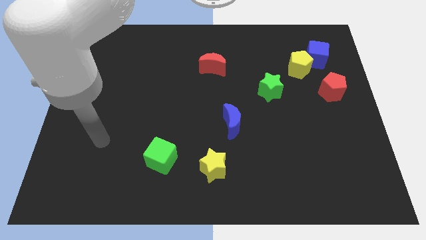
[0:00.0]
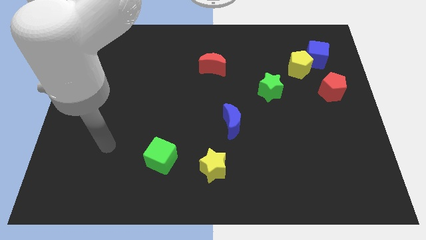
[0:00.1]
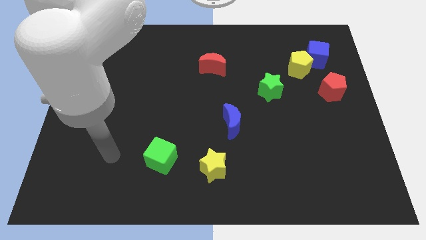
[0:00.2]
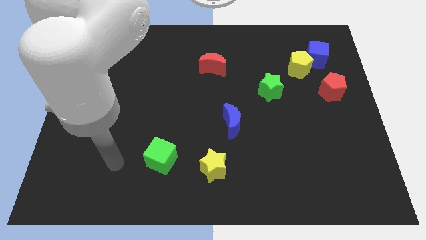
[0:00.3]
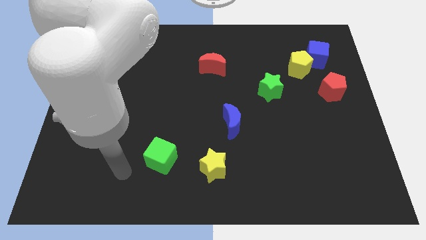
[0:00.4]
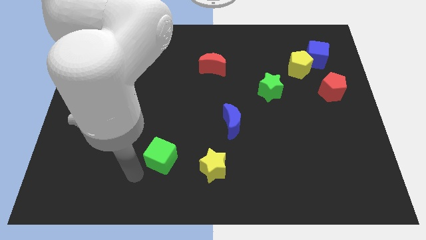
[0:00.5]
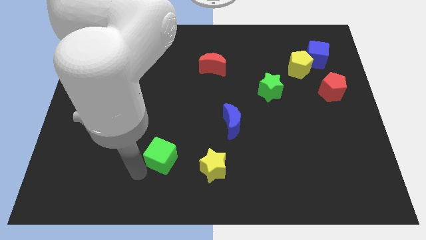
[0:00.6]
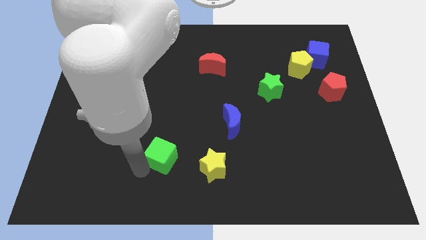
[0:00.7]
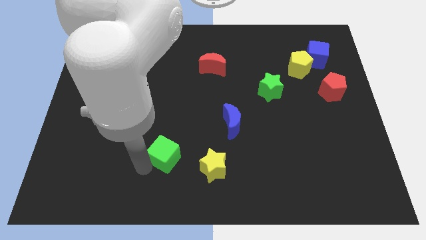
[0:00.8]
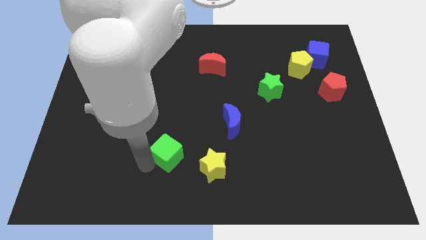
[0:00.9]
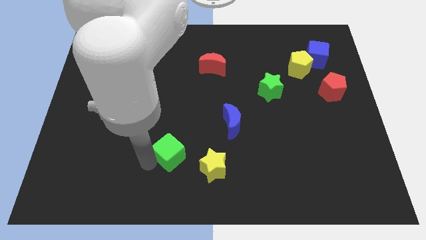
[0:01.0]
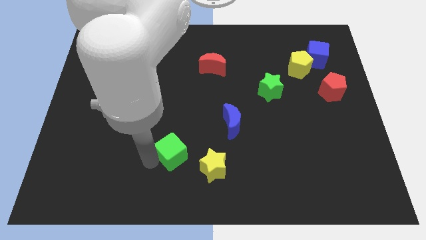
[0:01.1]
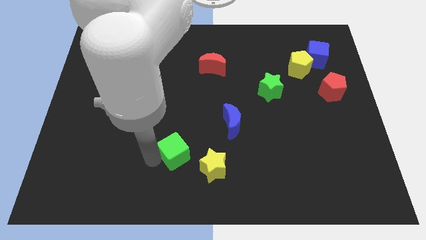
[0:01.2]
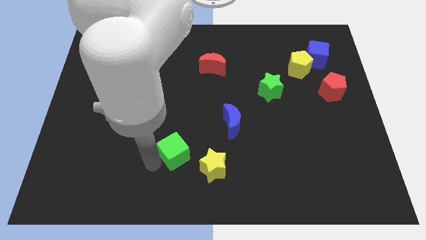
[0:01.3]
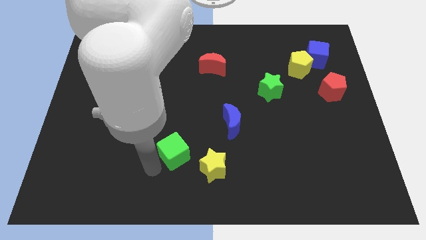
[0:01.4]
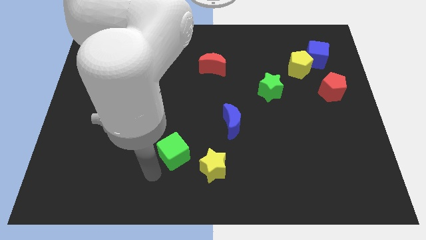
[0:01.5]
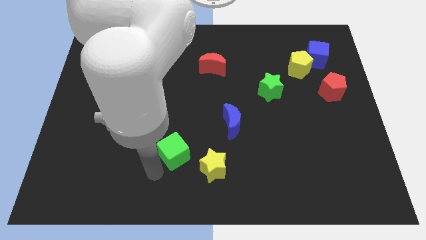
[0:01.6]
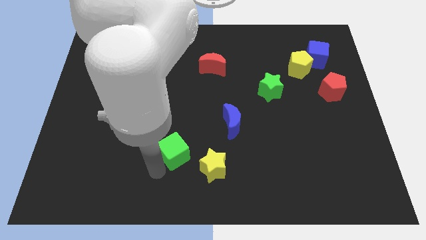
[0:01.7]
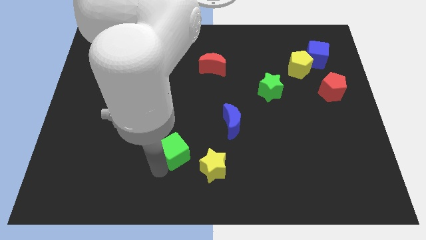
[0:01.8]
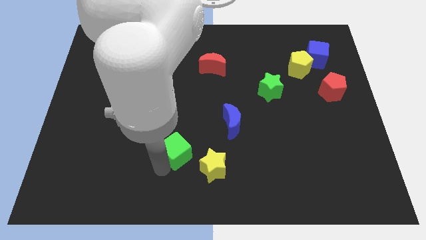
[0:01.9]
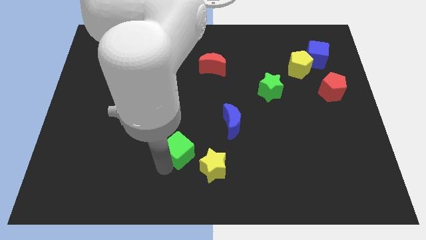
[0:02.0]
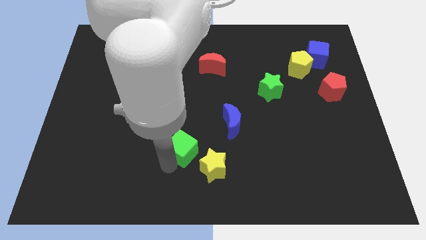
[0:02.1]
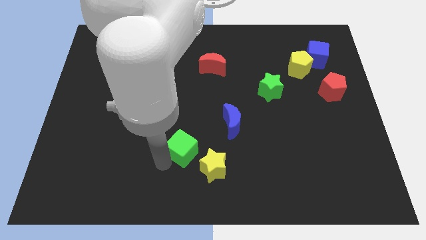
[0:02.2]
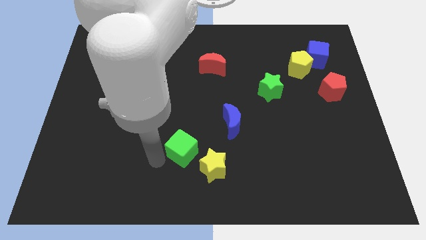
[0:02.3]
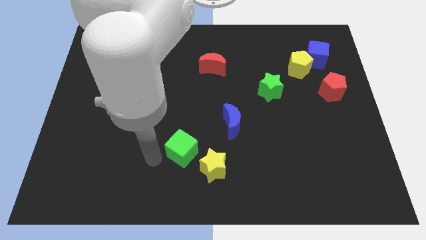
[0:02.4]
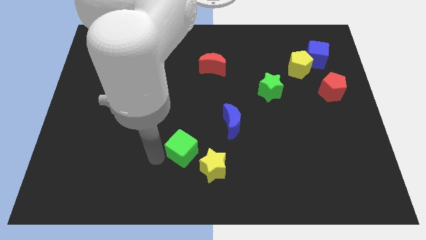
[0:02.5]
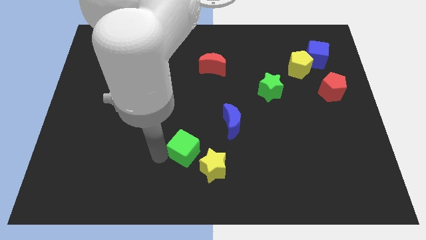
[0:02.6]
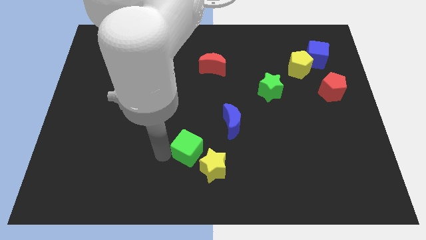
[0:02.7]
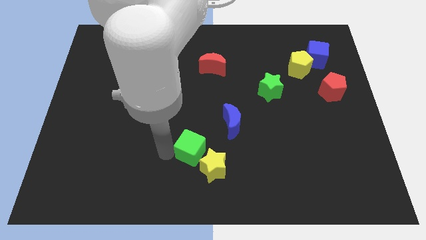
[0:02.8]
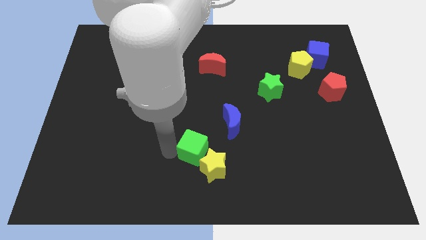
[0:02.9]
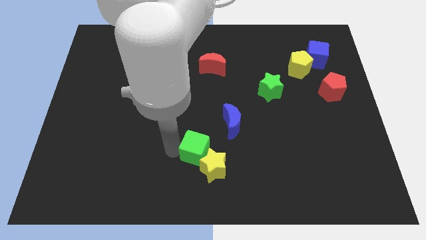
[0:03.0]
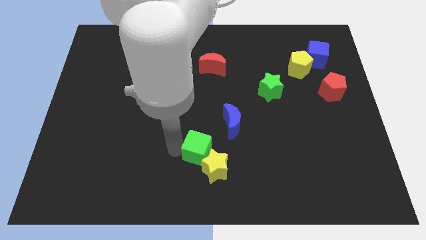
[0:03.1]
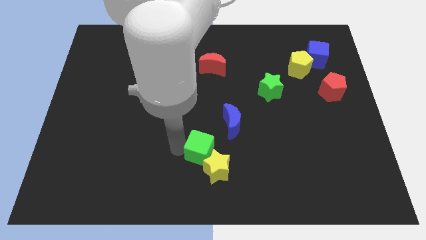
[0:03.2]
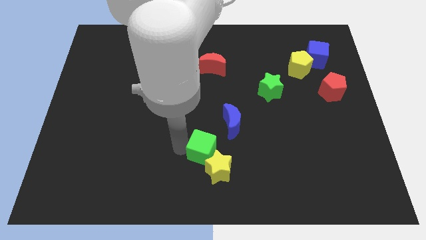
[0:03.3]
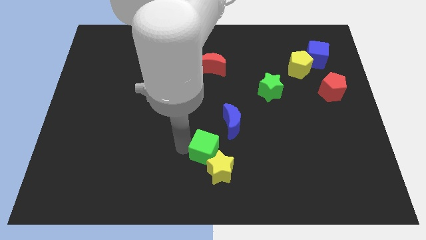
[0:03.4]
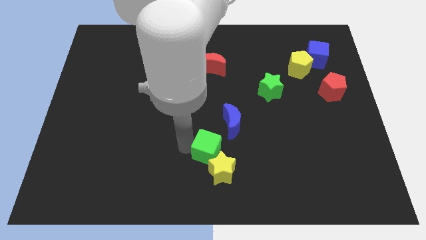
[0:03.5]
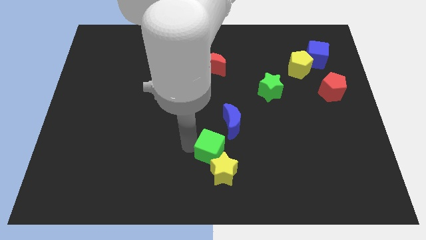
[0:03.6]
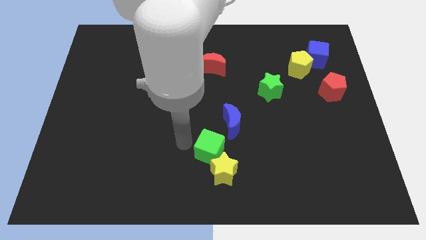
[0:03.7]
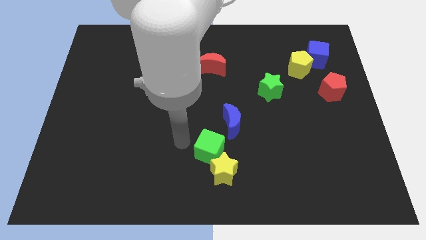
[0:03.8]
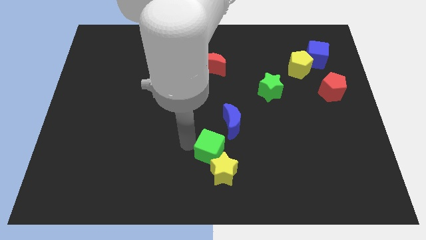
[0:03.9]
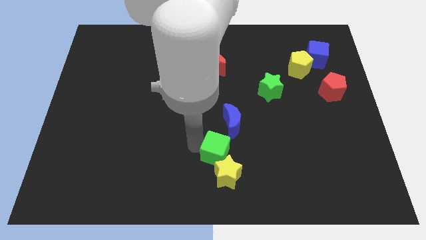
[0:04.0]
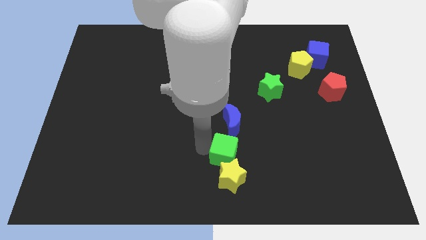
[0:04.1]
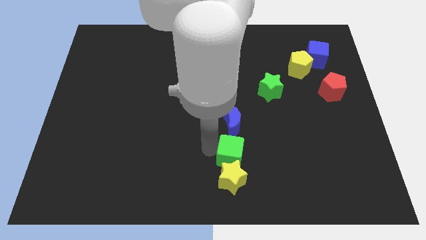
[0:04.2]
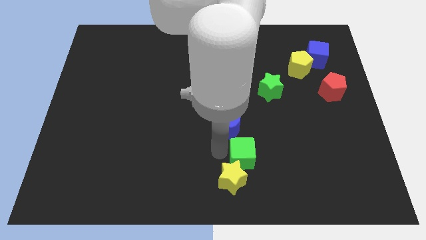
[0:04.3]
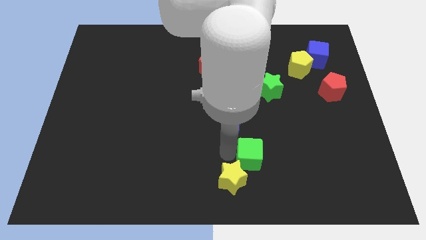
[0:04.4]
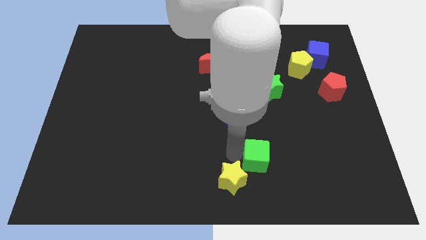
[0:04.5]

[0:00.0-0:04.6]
move the green cube right

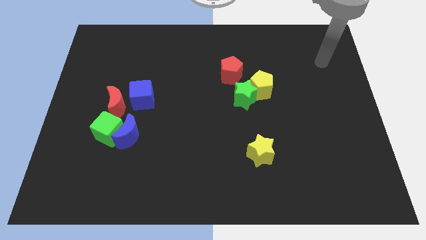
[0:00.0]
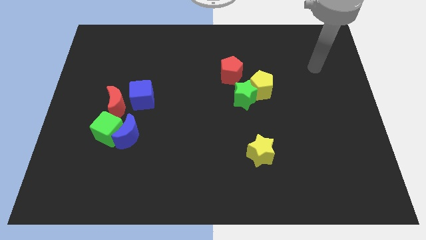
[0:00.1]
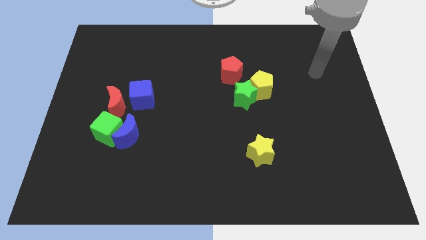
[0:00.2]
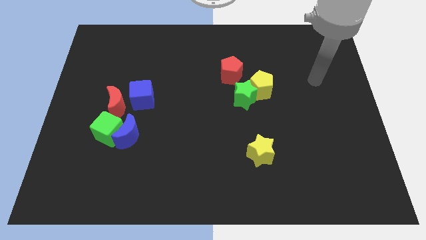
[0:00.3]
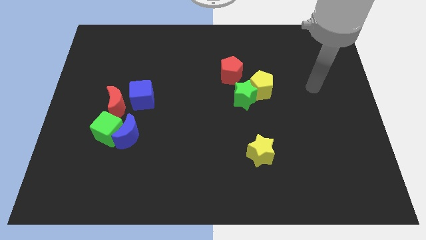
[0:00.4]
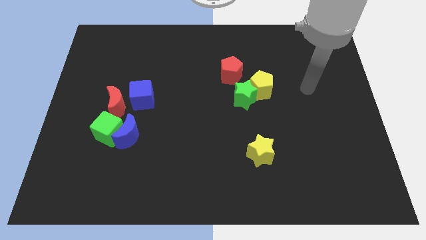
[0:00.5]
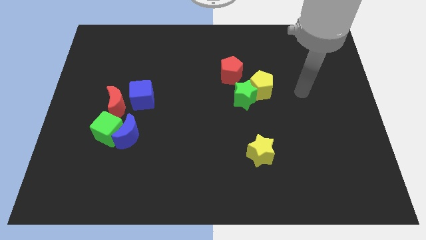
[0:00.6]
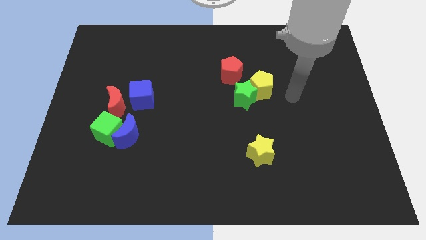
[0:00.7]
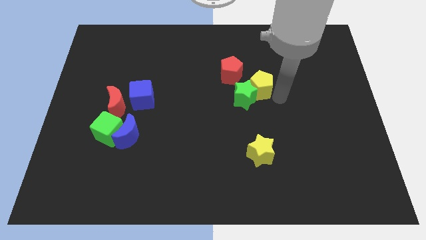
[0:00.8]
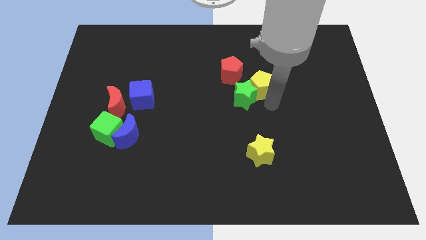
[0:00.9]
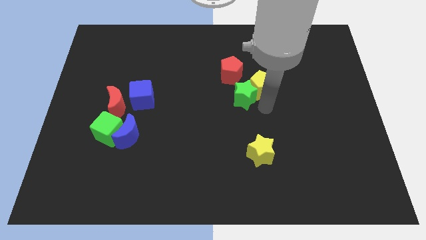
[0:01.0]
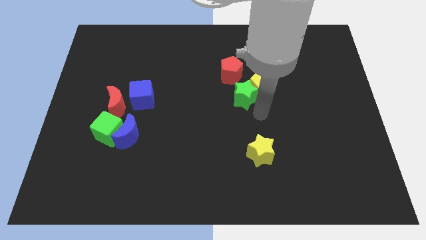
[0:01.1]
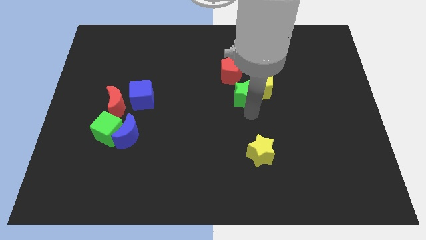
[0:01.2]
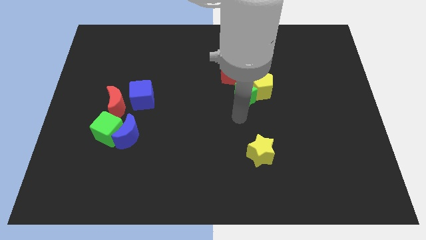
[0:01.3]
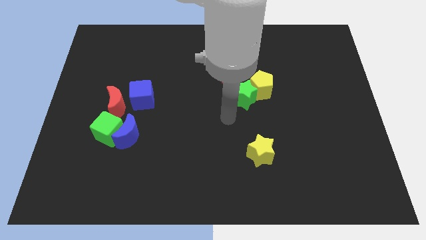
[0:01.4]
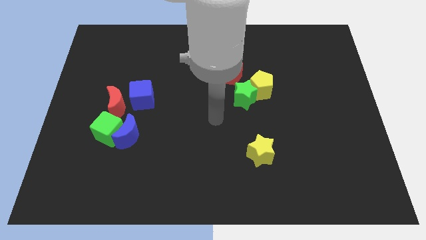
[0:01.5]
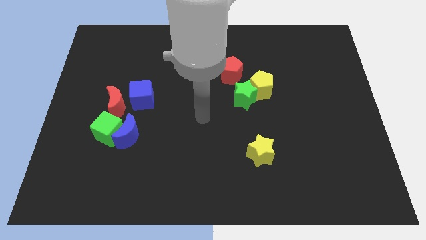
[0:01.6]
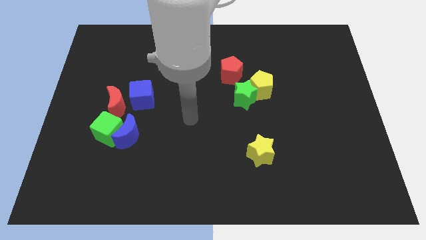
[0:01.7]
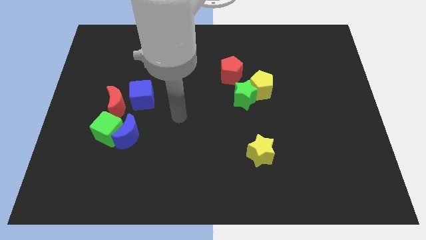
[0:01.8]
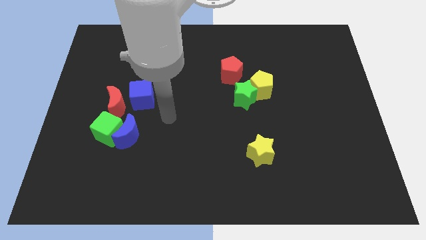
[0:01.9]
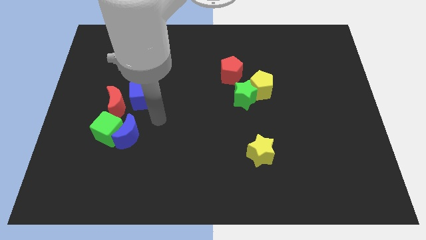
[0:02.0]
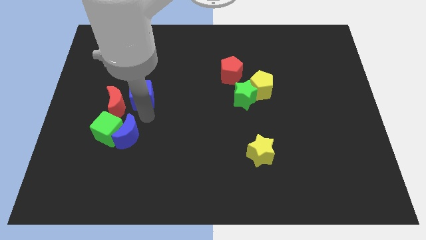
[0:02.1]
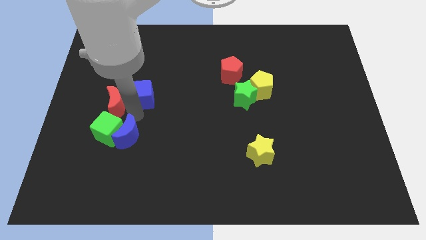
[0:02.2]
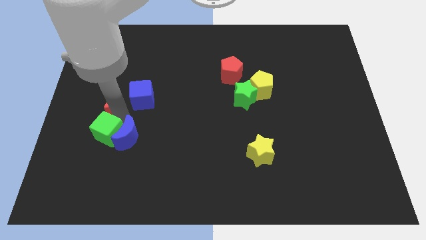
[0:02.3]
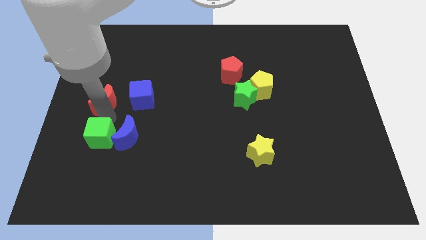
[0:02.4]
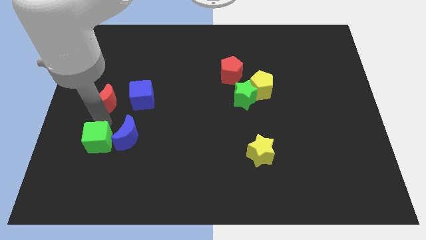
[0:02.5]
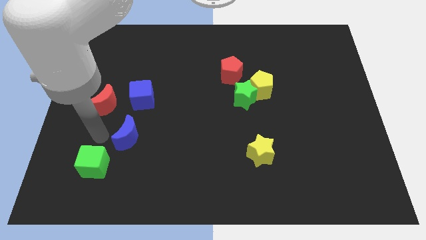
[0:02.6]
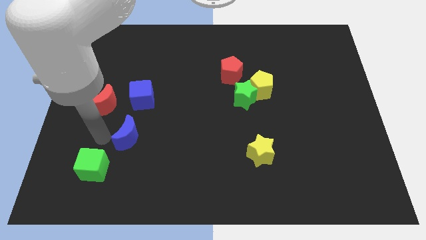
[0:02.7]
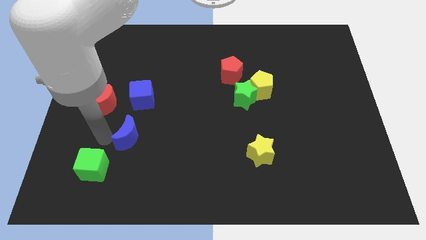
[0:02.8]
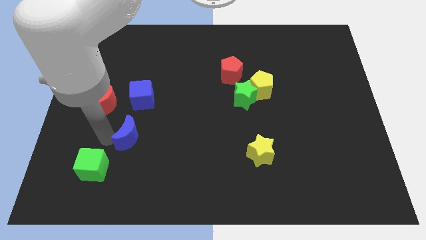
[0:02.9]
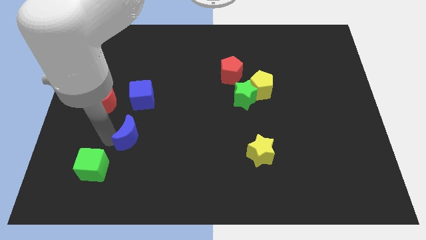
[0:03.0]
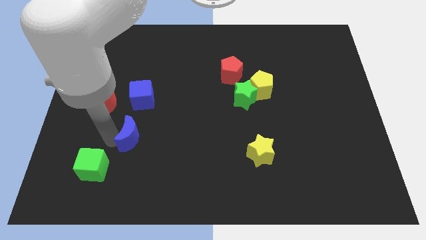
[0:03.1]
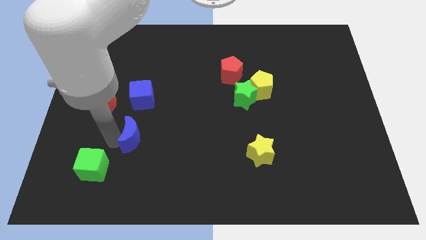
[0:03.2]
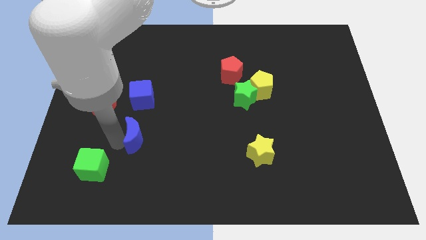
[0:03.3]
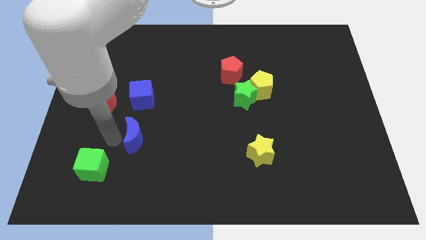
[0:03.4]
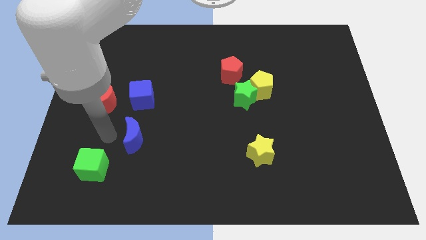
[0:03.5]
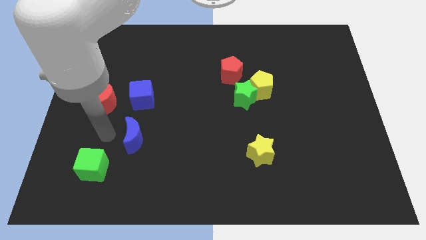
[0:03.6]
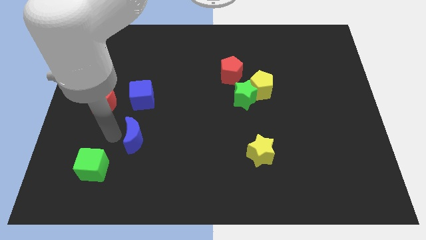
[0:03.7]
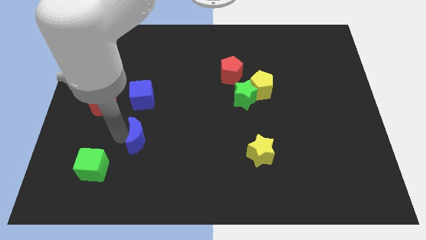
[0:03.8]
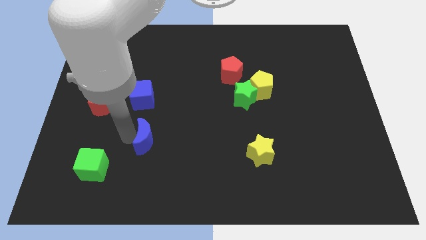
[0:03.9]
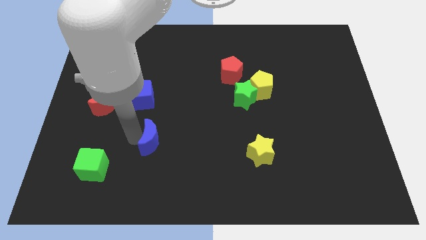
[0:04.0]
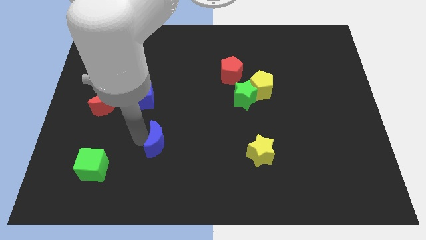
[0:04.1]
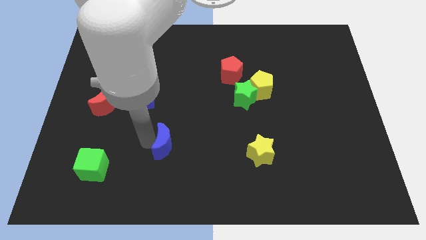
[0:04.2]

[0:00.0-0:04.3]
slightly slide the blue moon right
